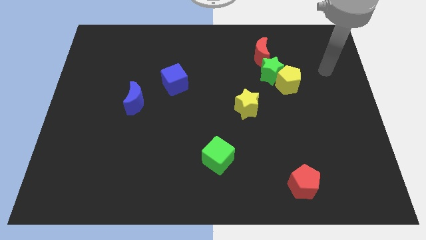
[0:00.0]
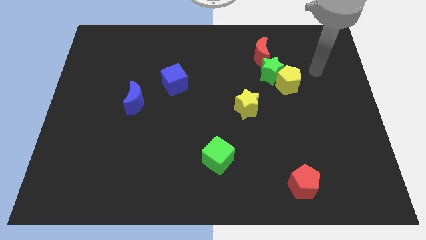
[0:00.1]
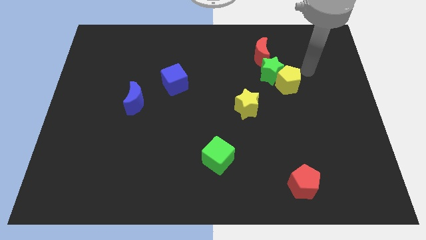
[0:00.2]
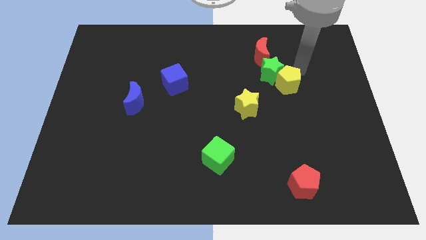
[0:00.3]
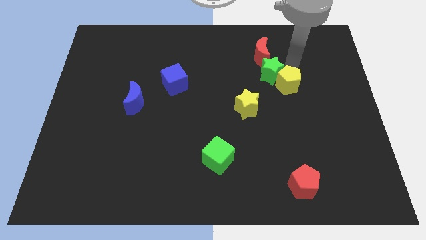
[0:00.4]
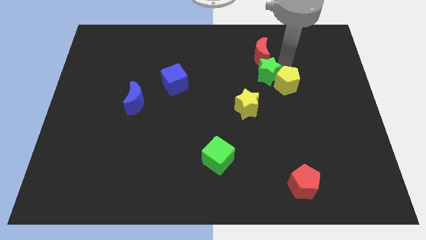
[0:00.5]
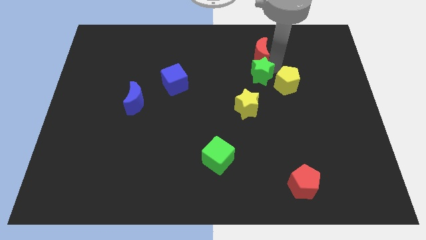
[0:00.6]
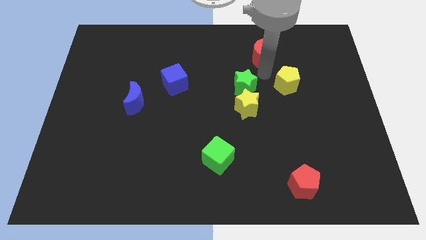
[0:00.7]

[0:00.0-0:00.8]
pull the yellow pentagon apart from the green star

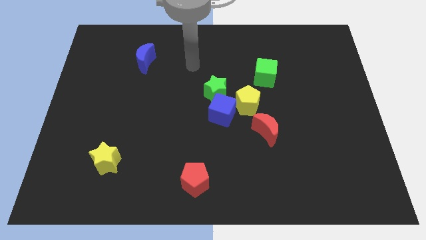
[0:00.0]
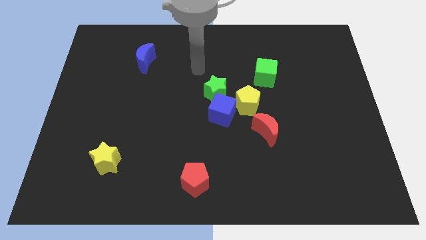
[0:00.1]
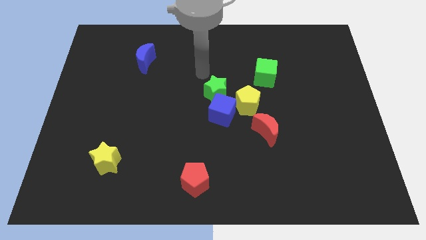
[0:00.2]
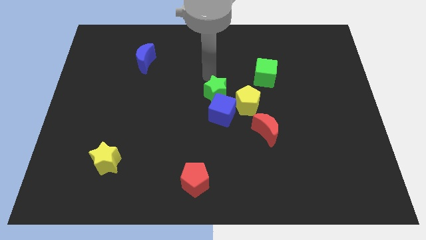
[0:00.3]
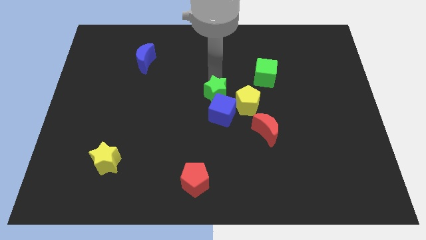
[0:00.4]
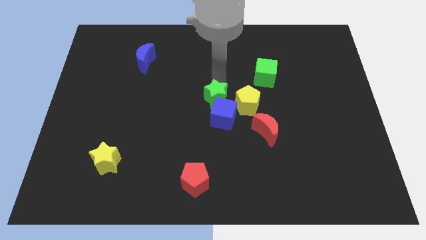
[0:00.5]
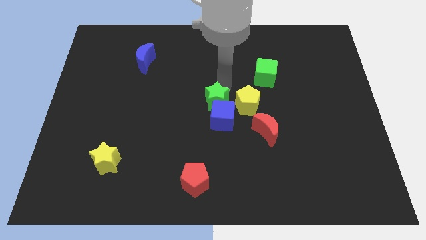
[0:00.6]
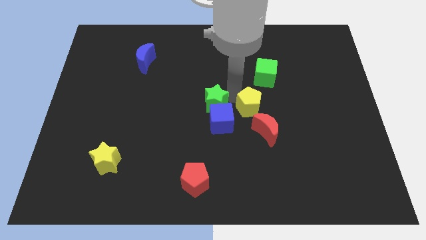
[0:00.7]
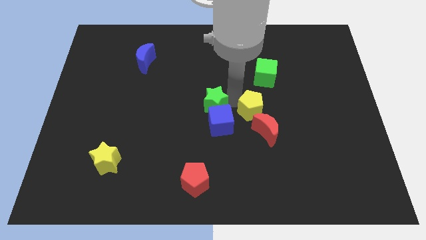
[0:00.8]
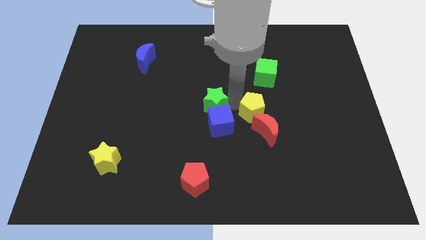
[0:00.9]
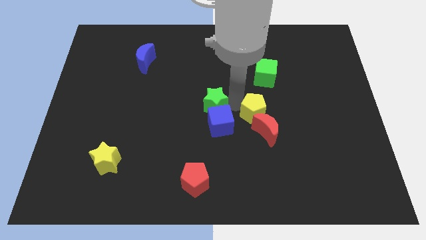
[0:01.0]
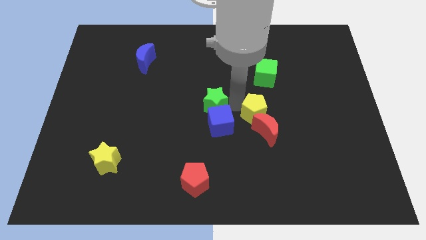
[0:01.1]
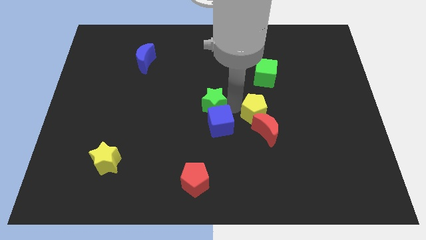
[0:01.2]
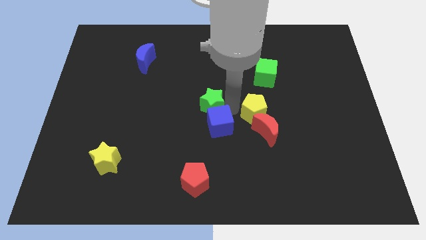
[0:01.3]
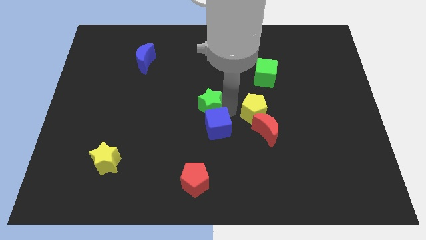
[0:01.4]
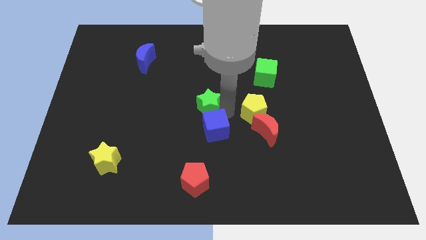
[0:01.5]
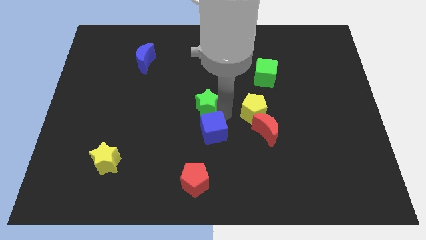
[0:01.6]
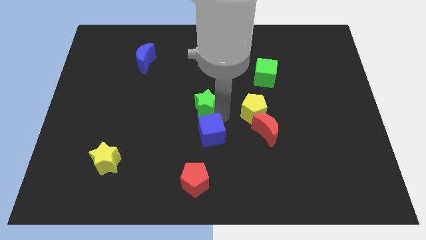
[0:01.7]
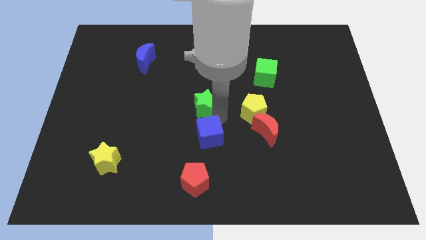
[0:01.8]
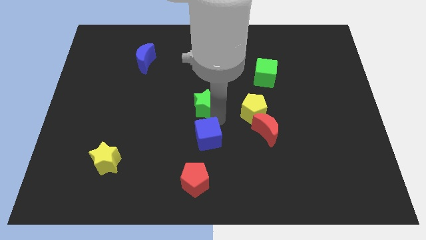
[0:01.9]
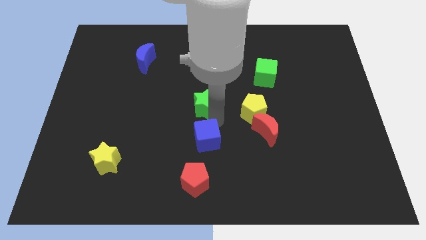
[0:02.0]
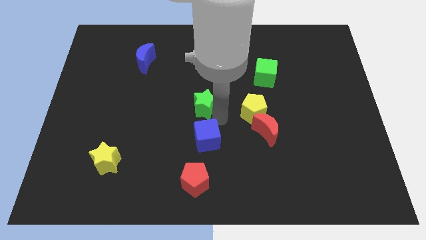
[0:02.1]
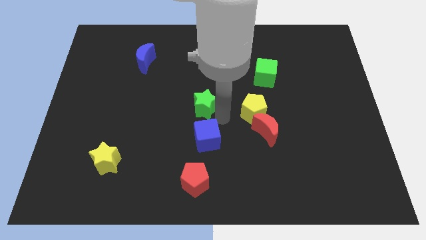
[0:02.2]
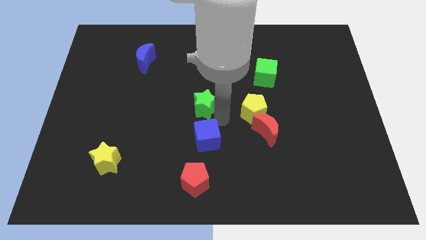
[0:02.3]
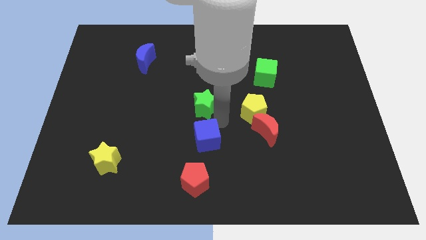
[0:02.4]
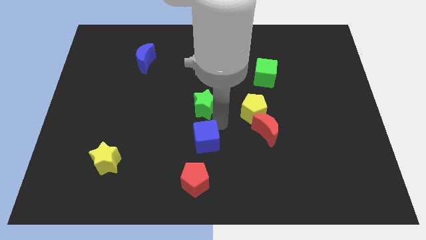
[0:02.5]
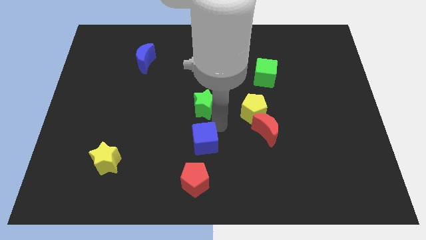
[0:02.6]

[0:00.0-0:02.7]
pull the blue cube apart from the green star and yellow pentagon

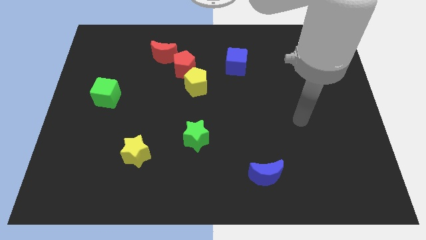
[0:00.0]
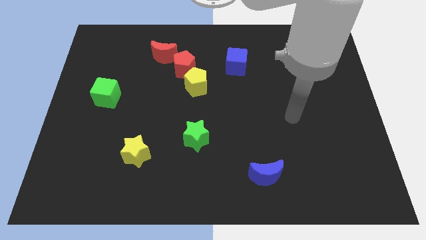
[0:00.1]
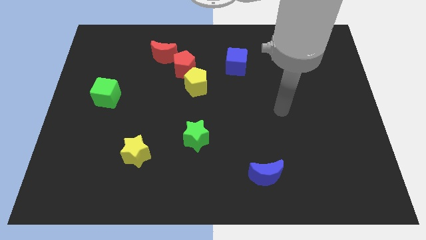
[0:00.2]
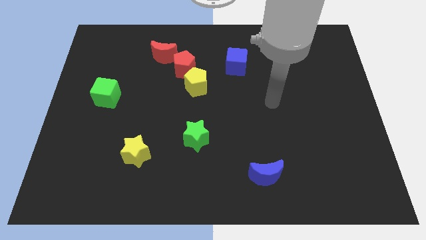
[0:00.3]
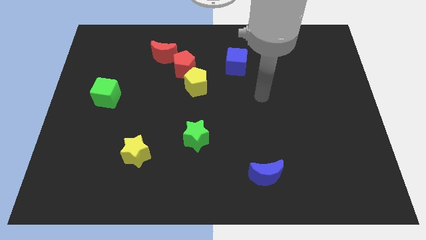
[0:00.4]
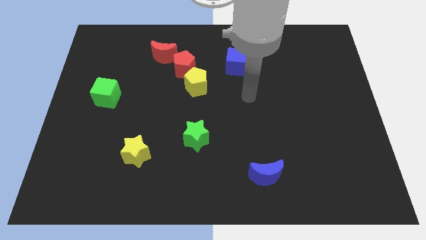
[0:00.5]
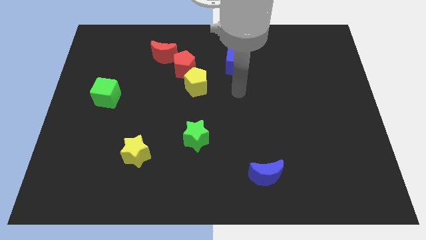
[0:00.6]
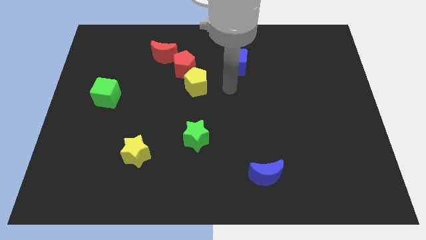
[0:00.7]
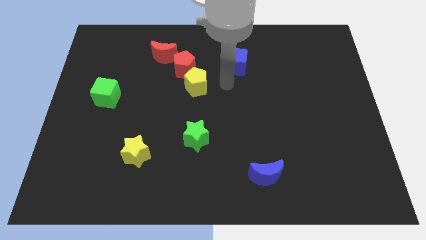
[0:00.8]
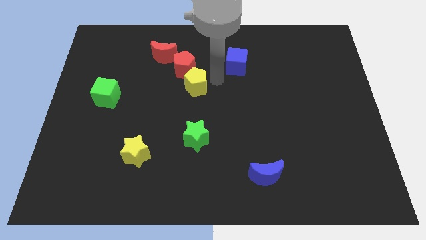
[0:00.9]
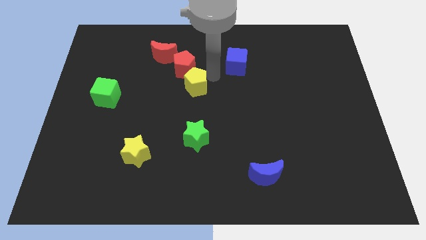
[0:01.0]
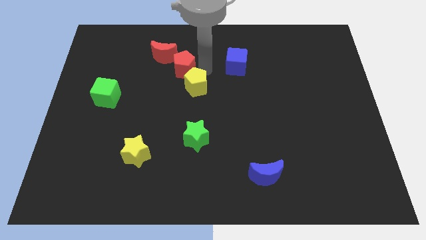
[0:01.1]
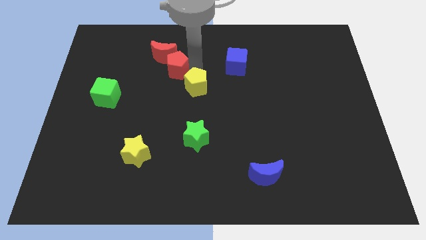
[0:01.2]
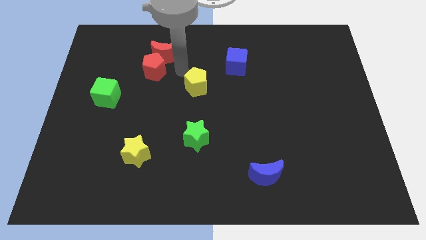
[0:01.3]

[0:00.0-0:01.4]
pull the yellow pentagon apart from the red pentagon

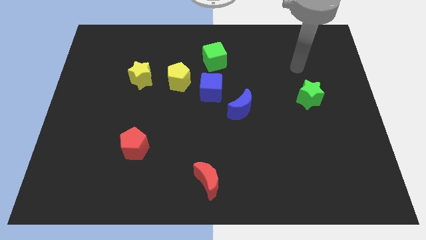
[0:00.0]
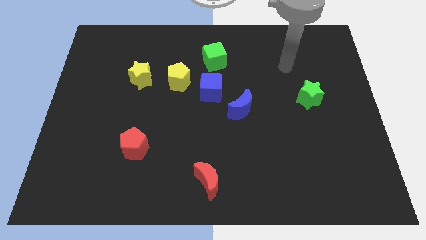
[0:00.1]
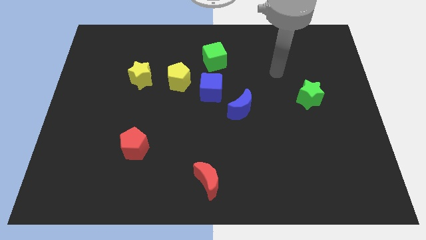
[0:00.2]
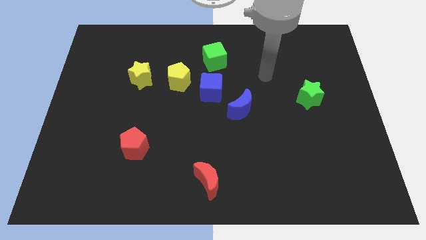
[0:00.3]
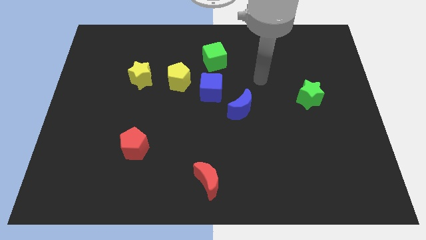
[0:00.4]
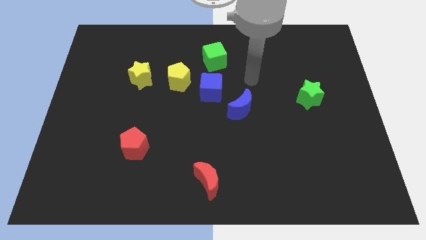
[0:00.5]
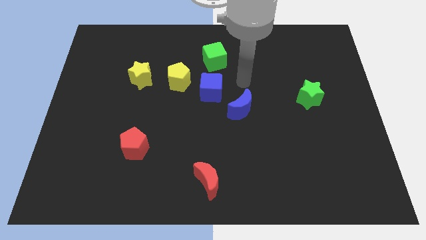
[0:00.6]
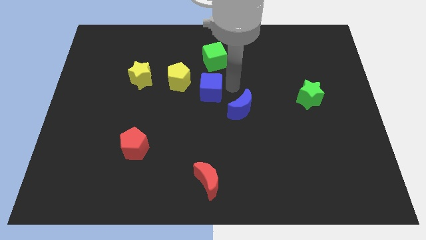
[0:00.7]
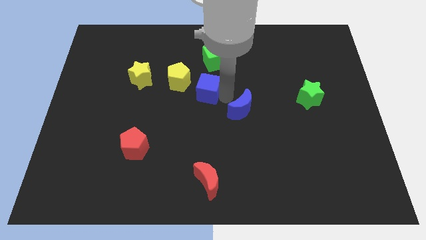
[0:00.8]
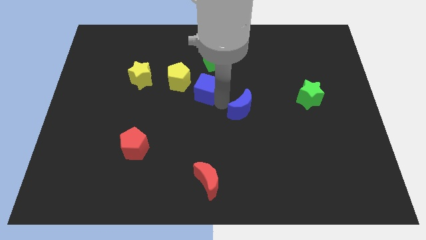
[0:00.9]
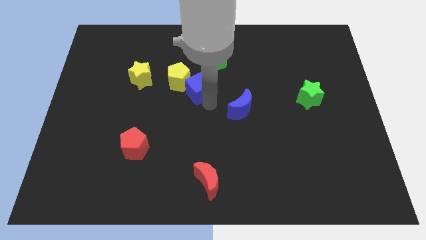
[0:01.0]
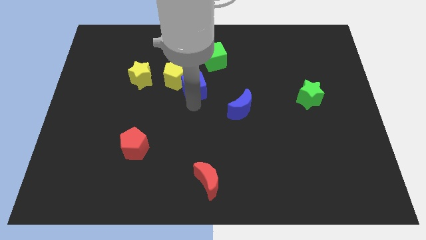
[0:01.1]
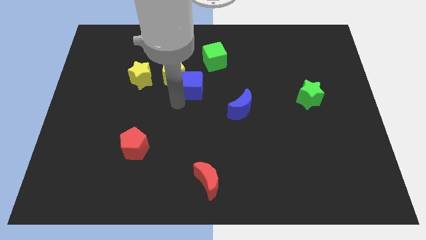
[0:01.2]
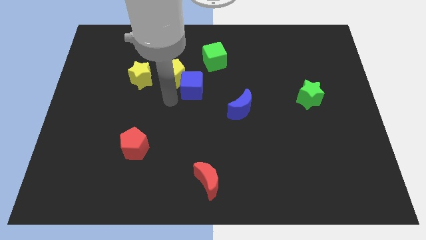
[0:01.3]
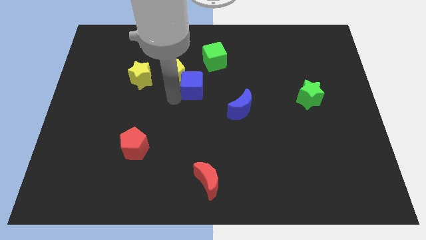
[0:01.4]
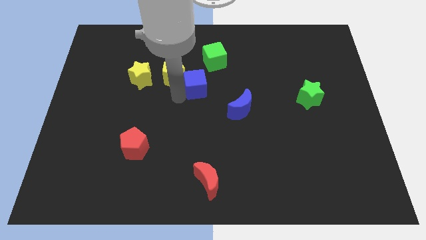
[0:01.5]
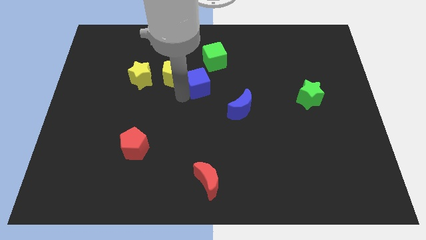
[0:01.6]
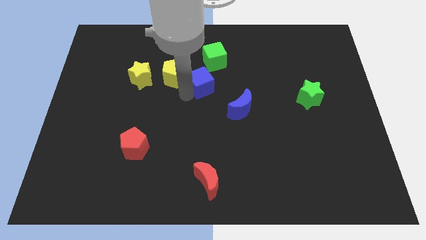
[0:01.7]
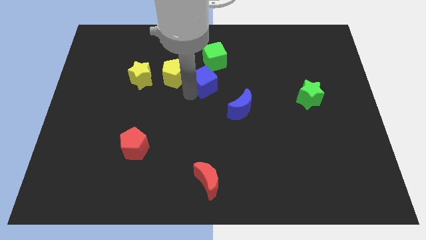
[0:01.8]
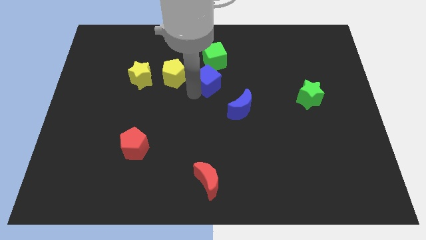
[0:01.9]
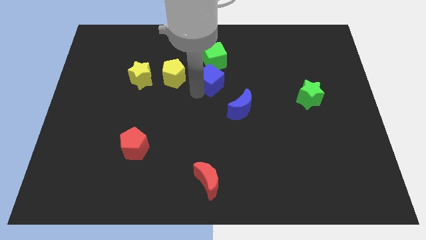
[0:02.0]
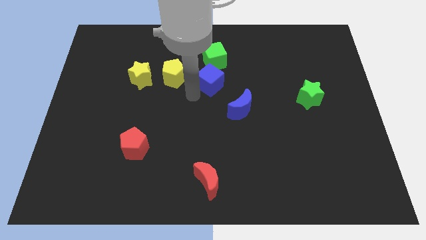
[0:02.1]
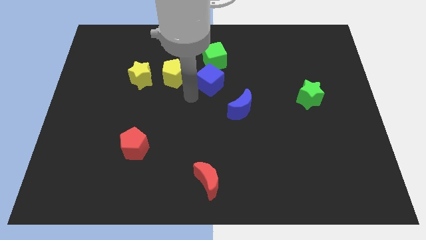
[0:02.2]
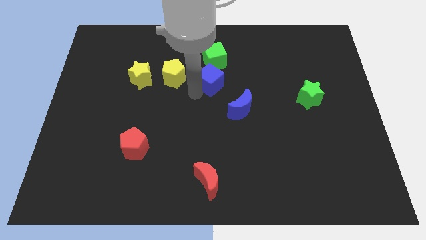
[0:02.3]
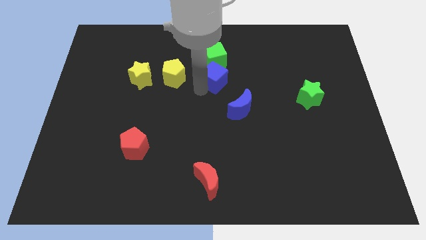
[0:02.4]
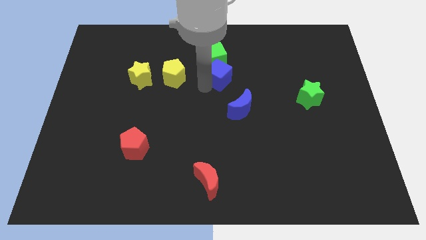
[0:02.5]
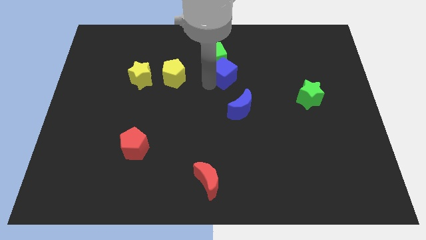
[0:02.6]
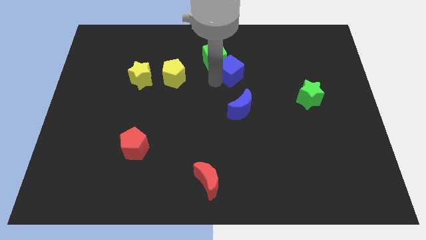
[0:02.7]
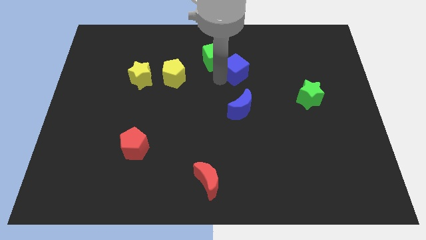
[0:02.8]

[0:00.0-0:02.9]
separate the blue cube from the yellow pentagon and blue moon

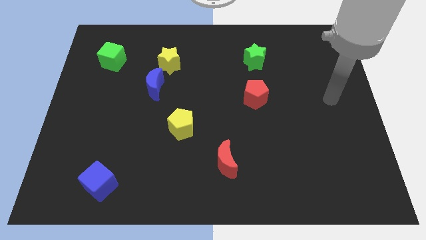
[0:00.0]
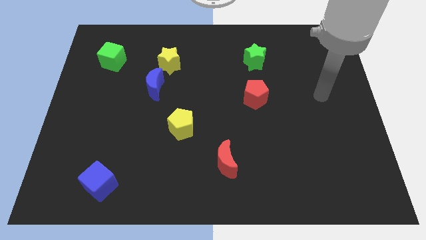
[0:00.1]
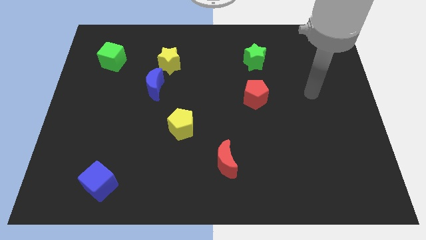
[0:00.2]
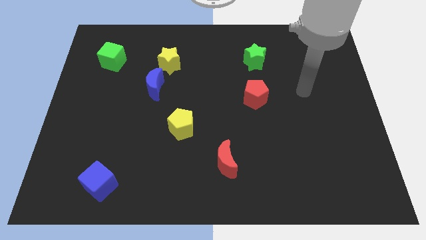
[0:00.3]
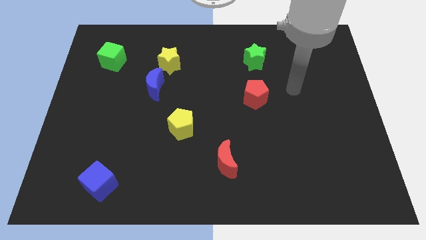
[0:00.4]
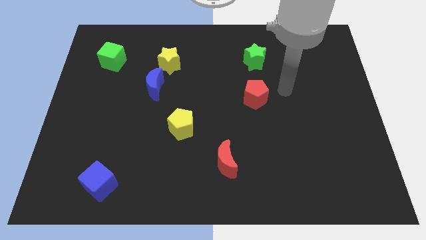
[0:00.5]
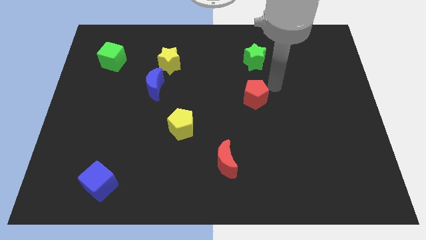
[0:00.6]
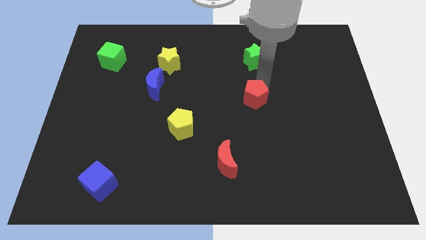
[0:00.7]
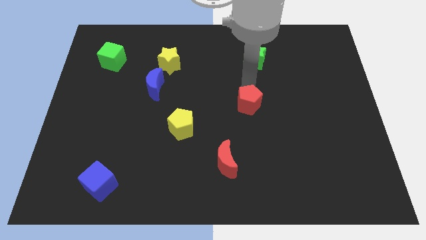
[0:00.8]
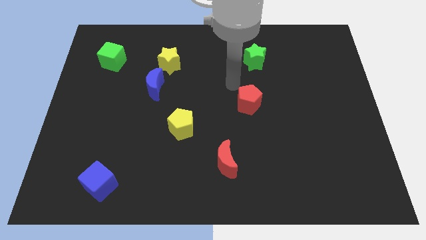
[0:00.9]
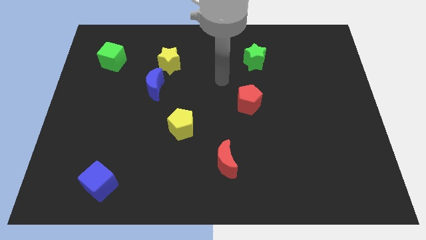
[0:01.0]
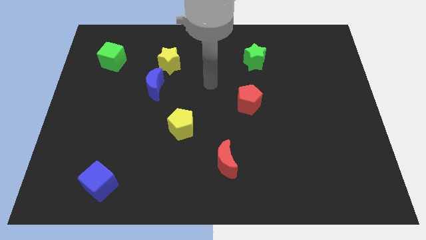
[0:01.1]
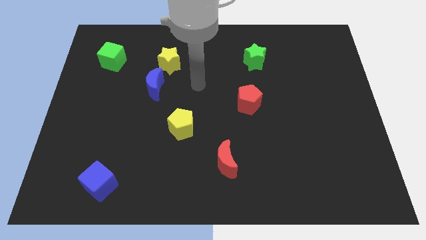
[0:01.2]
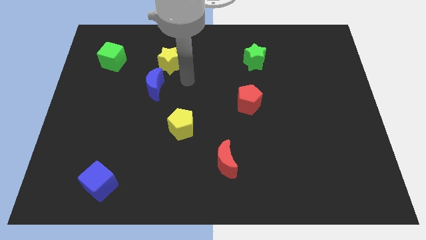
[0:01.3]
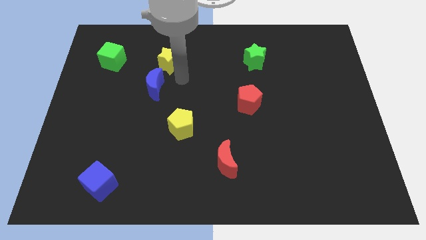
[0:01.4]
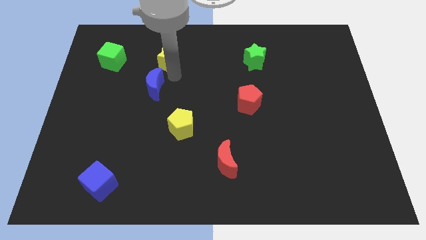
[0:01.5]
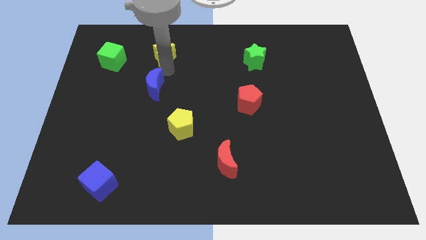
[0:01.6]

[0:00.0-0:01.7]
pull the blue moon apart from the yellow star
